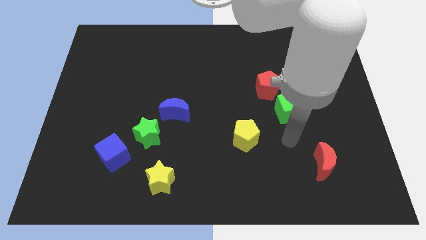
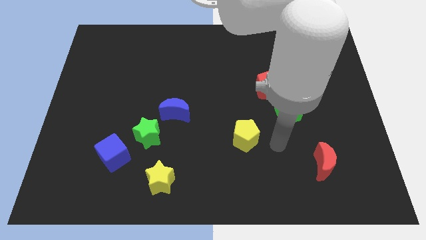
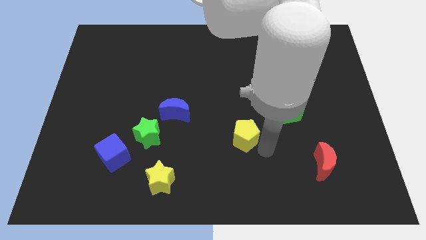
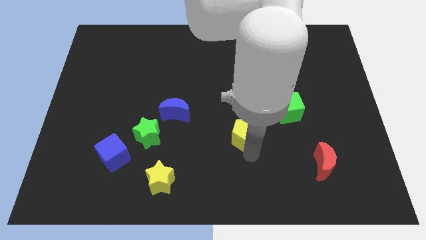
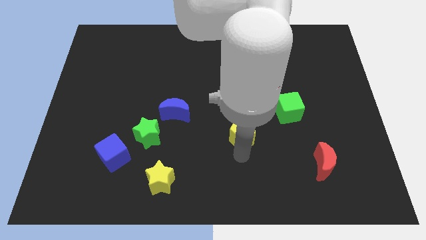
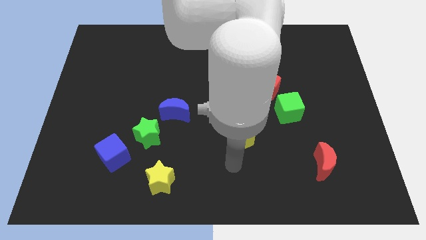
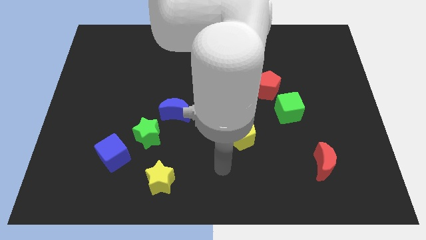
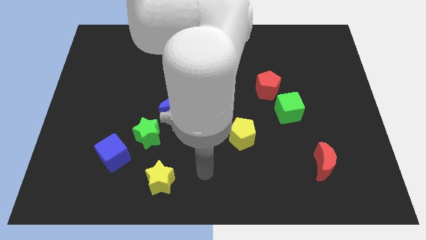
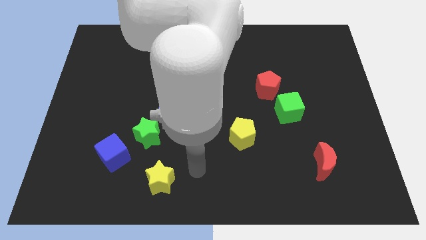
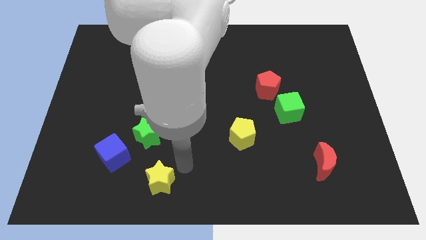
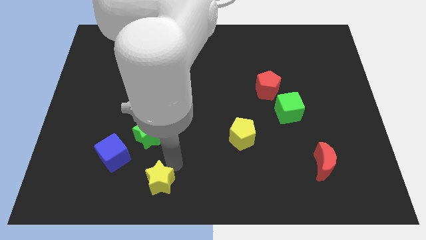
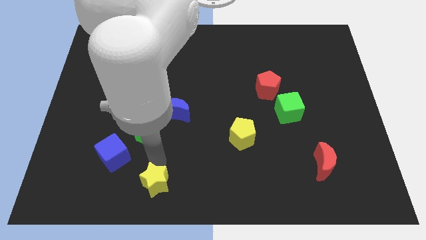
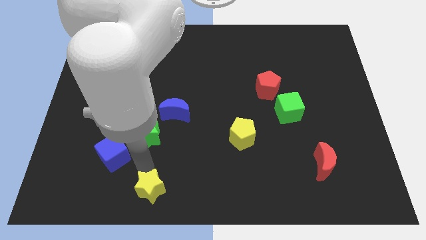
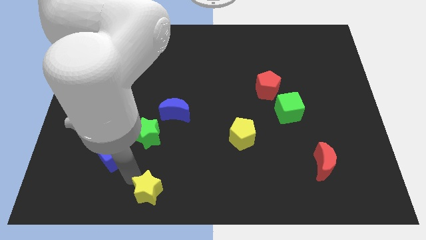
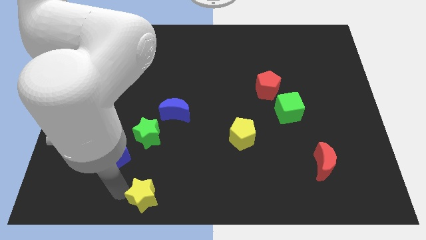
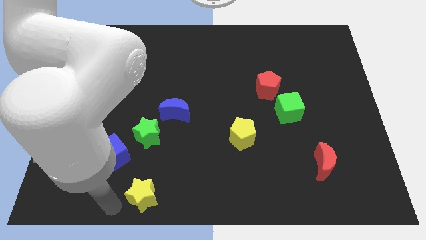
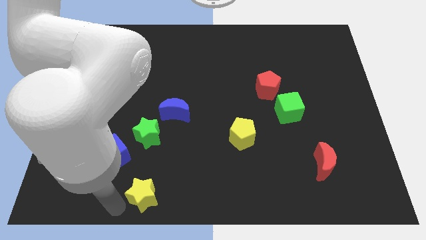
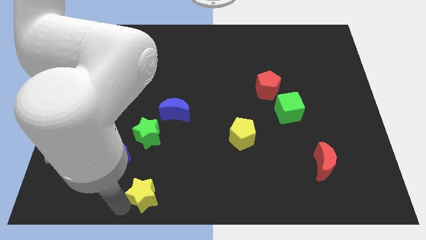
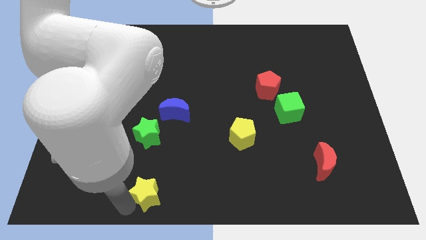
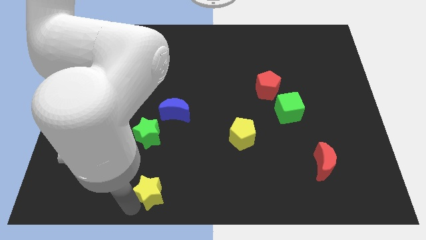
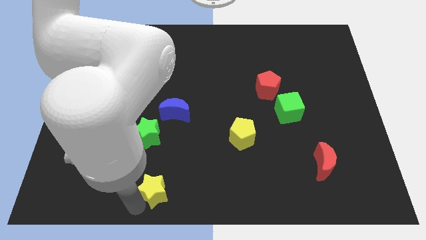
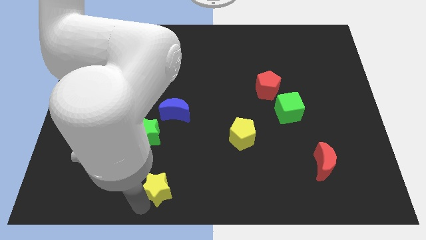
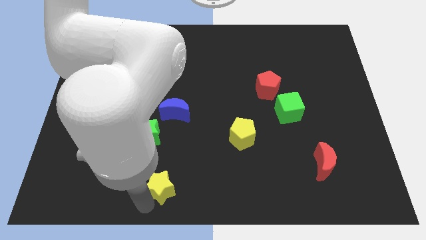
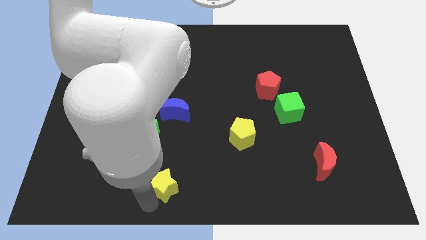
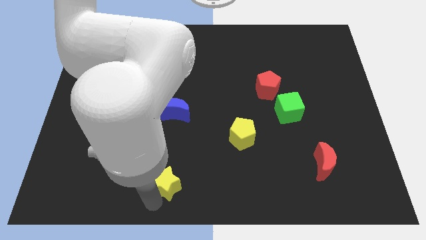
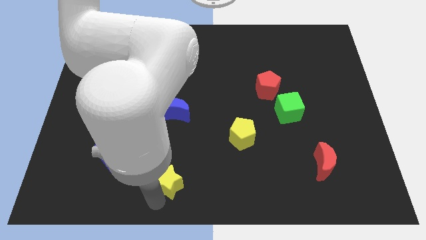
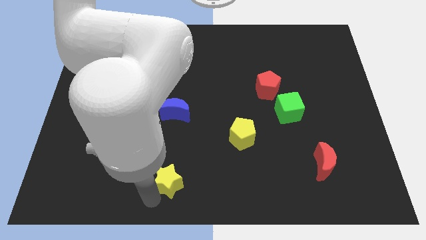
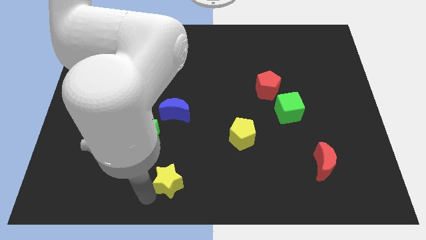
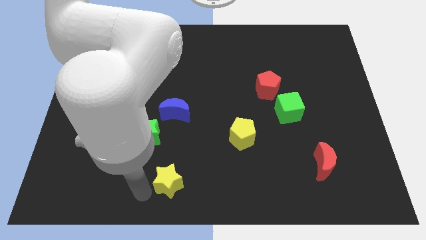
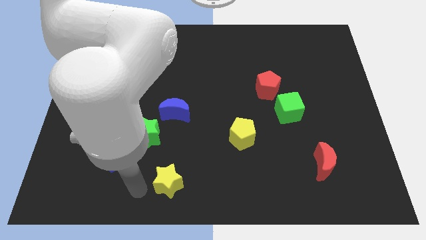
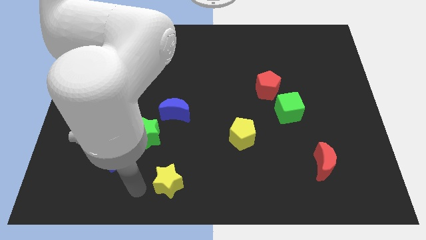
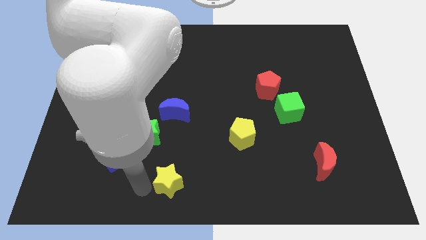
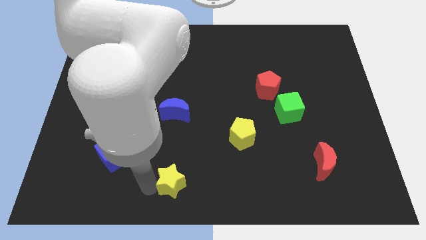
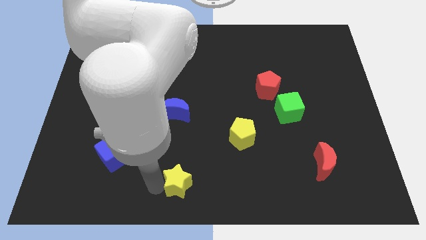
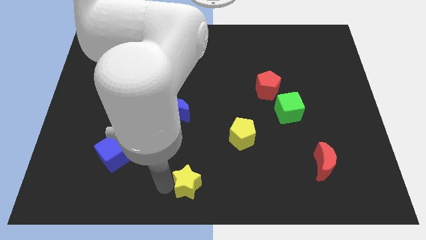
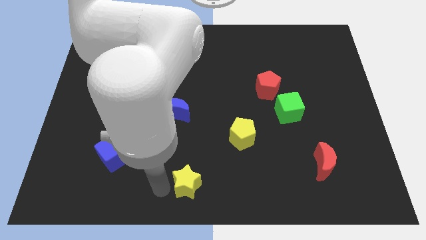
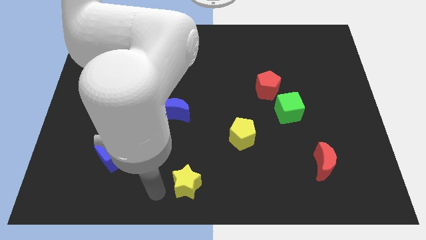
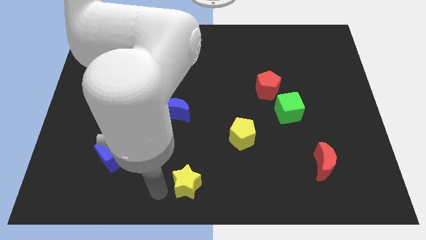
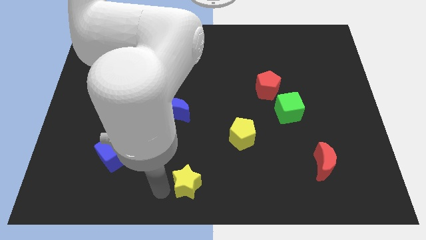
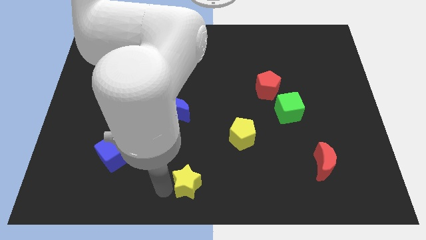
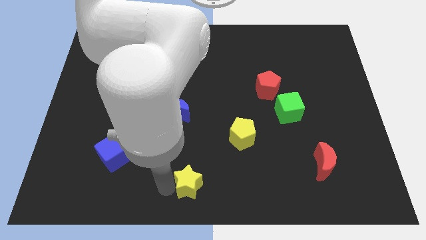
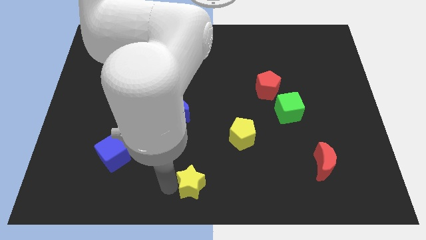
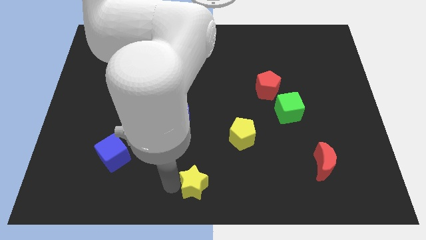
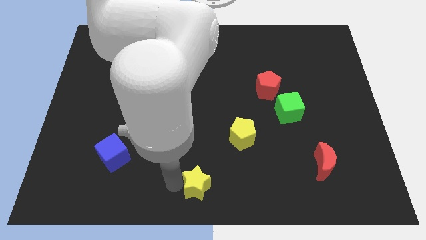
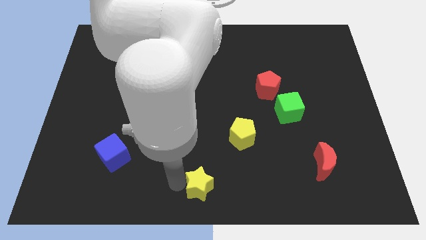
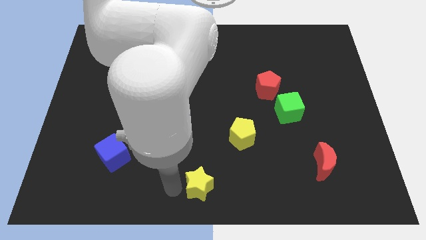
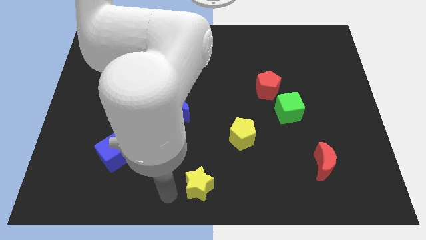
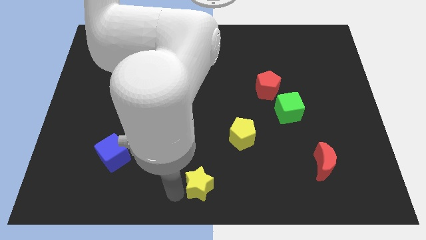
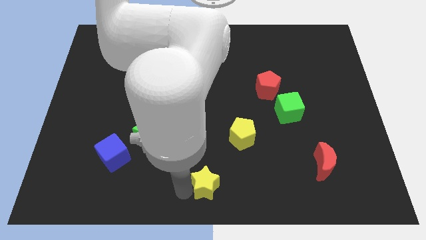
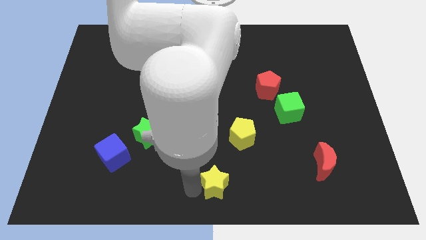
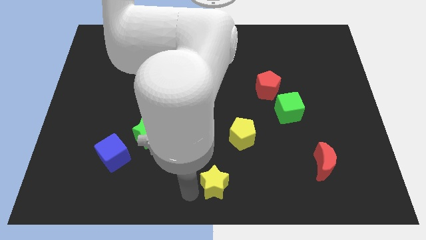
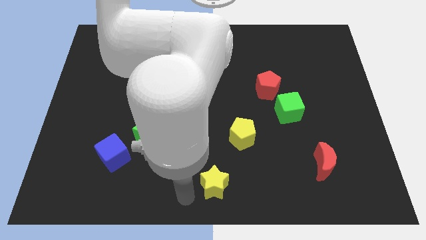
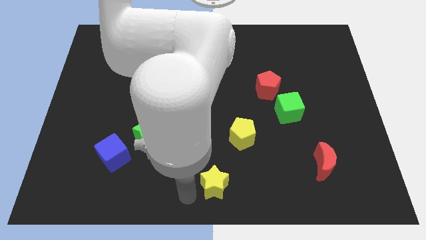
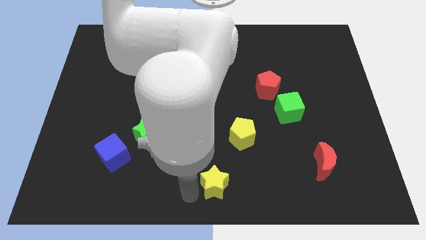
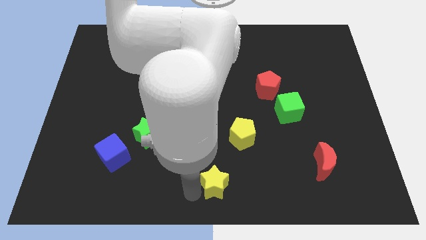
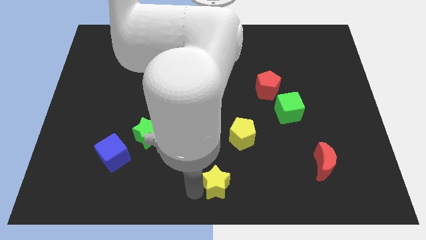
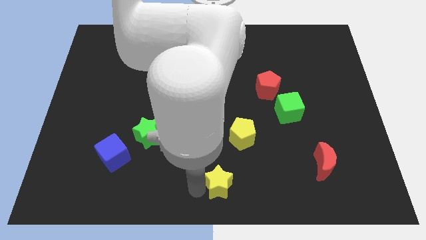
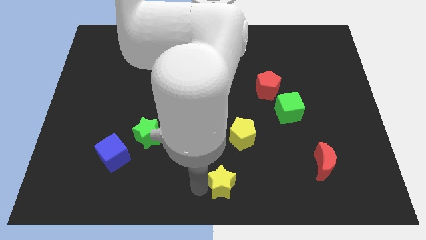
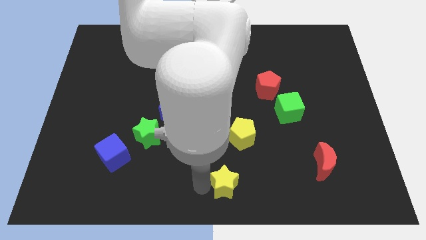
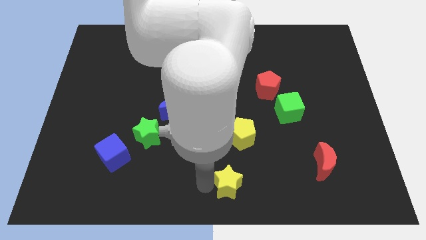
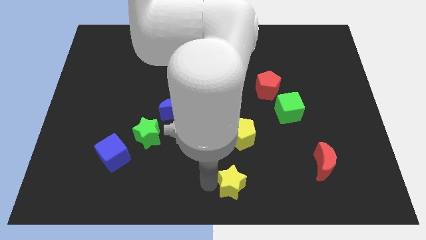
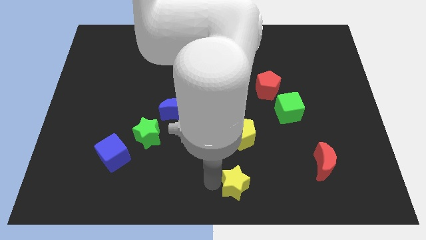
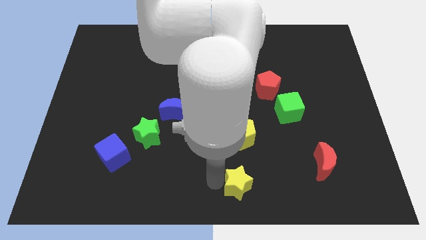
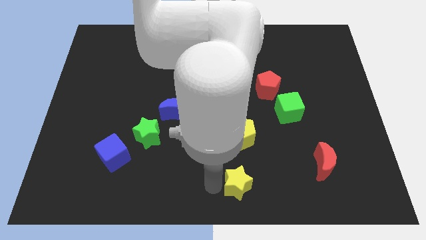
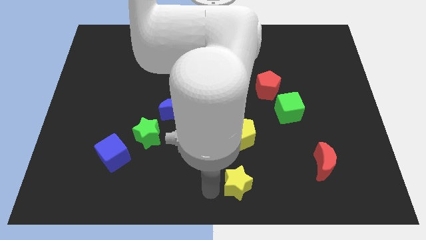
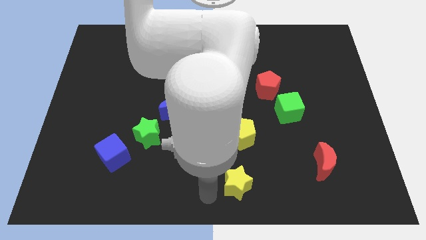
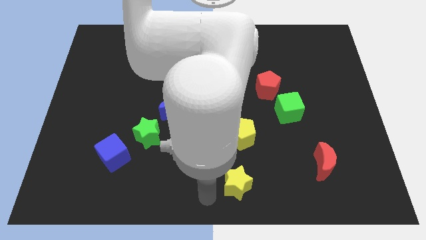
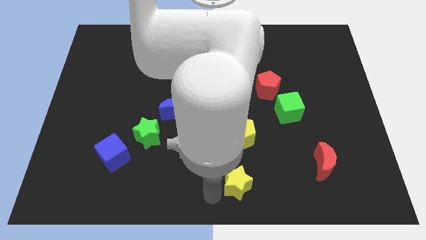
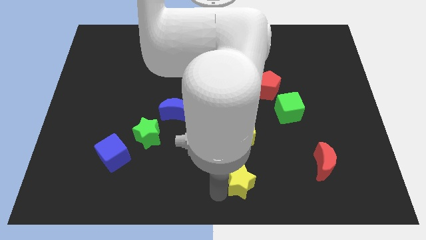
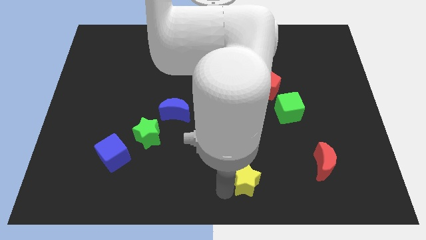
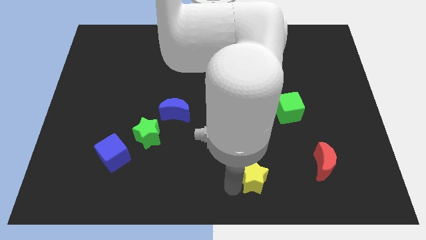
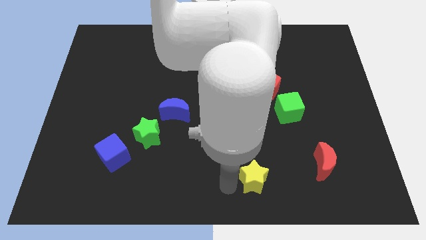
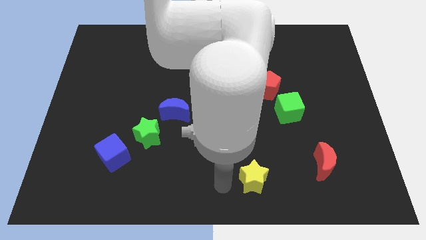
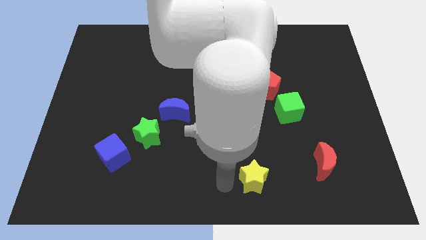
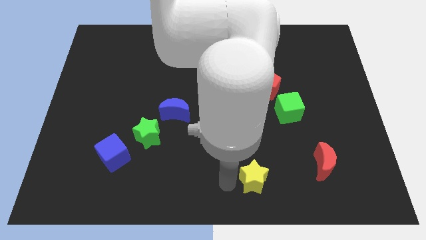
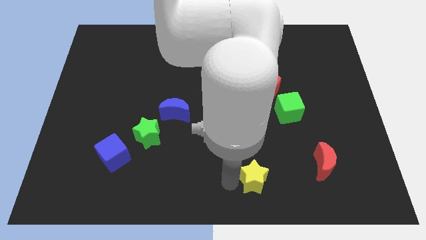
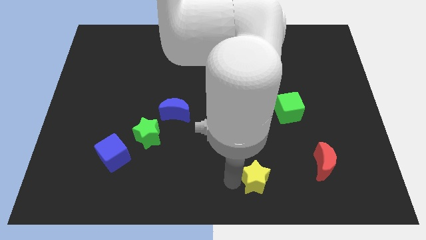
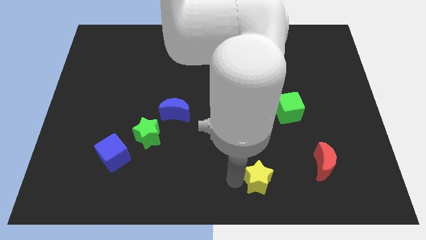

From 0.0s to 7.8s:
slide the yellow star to the right
